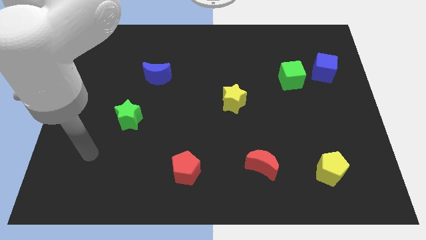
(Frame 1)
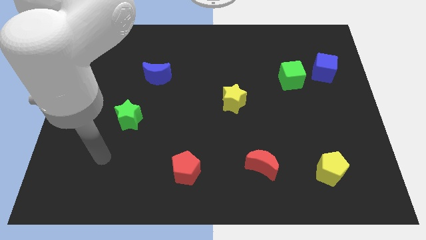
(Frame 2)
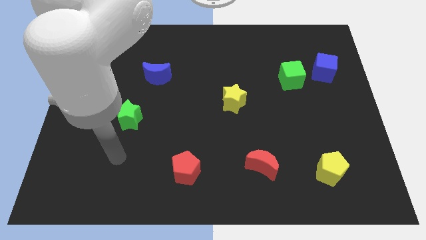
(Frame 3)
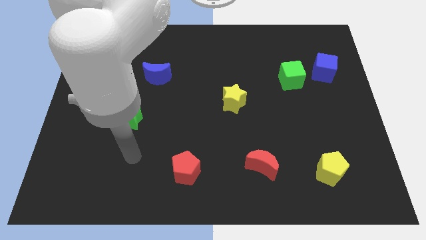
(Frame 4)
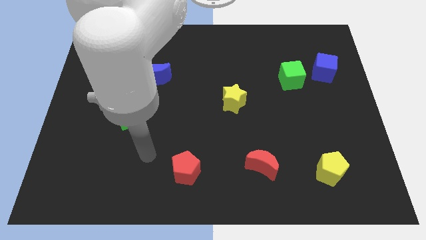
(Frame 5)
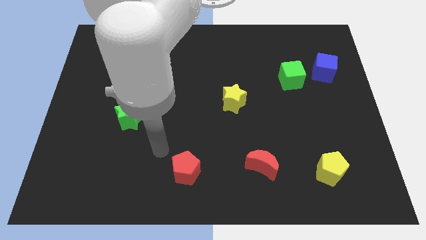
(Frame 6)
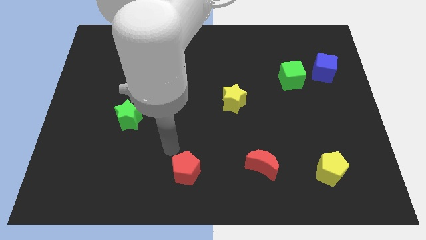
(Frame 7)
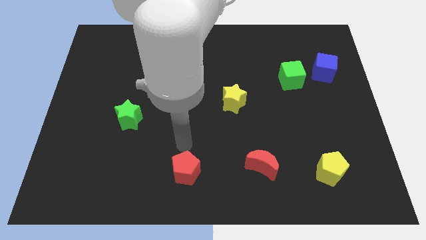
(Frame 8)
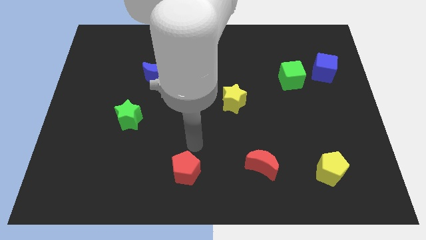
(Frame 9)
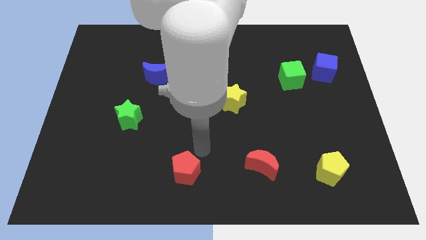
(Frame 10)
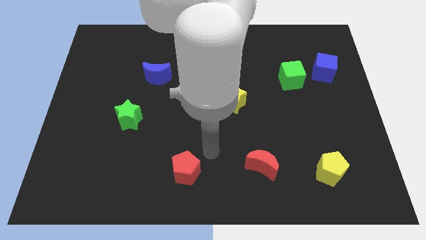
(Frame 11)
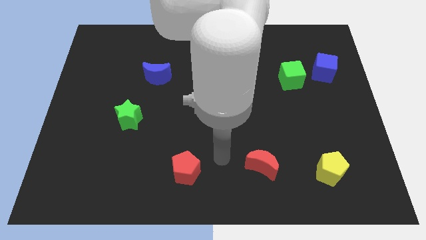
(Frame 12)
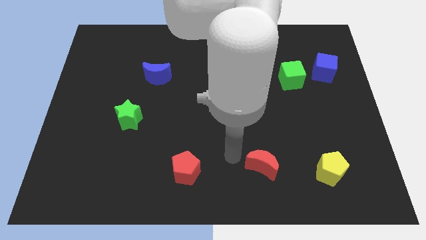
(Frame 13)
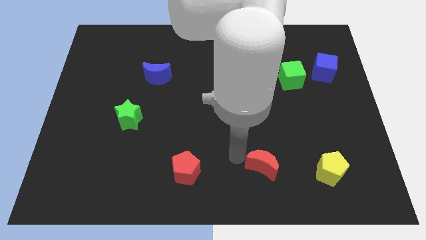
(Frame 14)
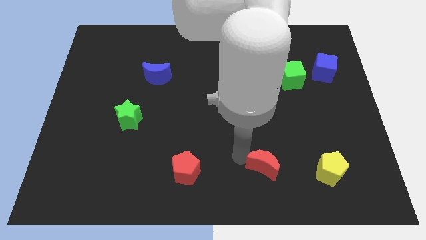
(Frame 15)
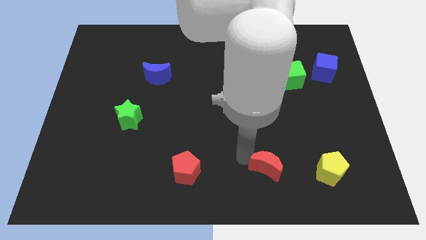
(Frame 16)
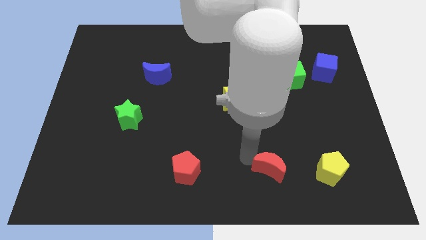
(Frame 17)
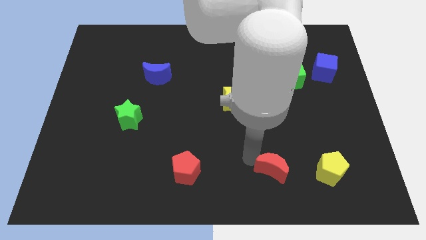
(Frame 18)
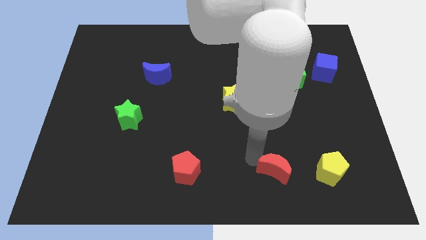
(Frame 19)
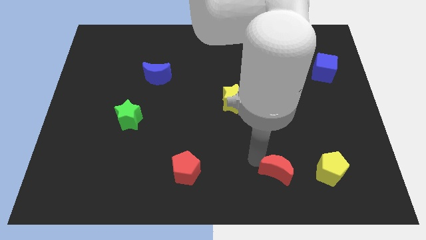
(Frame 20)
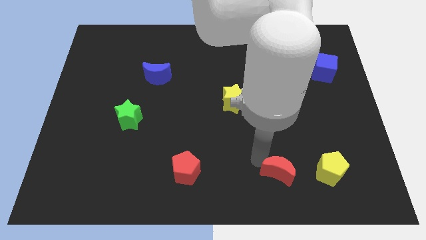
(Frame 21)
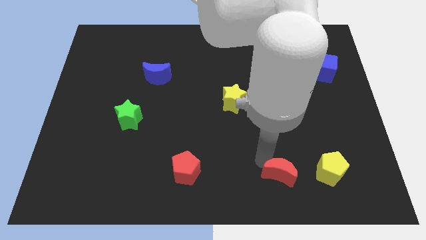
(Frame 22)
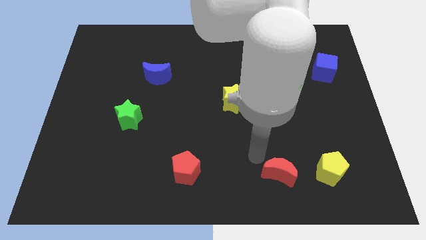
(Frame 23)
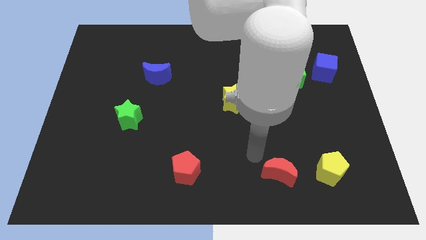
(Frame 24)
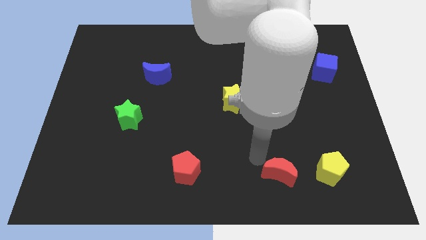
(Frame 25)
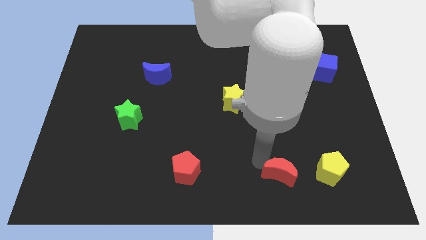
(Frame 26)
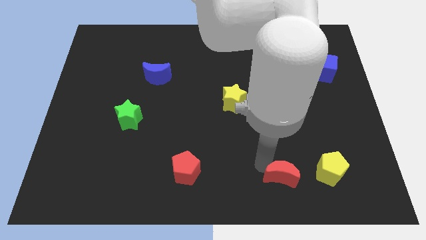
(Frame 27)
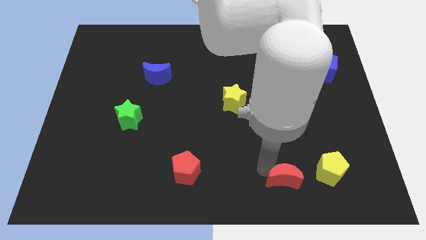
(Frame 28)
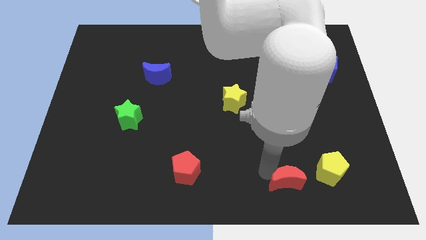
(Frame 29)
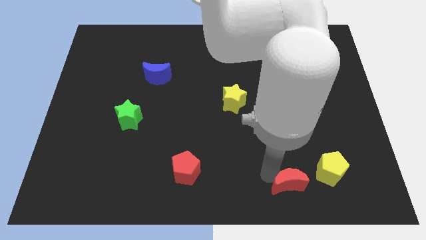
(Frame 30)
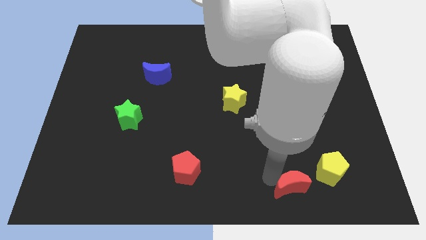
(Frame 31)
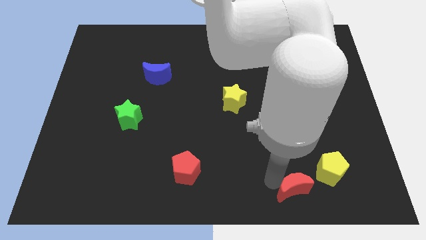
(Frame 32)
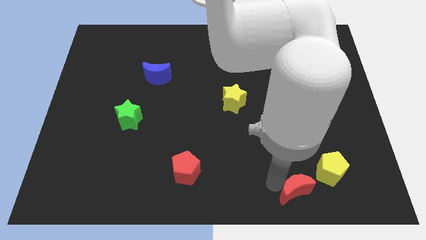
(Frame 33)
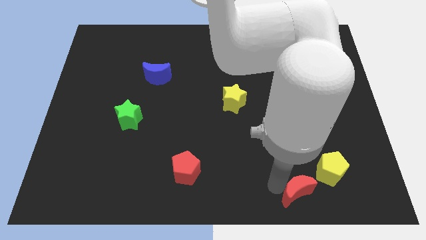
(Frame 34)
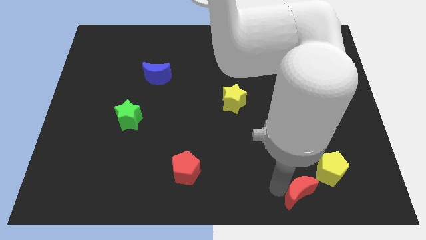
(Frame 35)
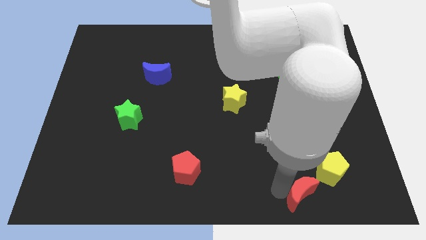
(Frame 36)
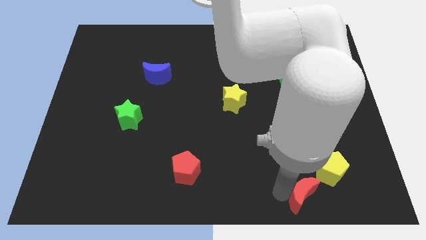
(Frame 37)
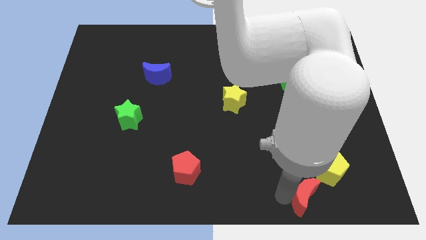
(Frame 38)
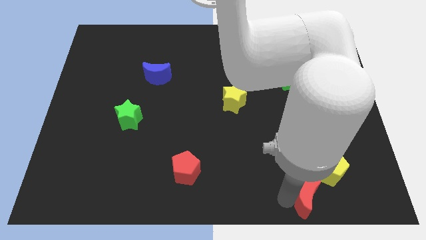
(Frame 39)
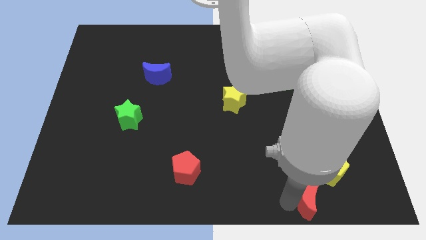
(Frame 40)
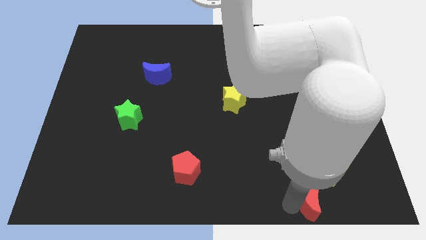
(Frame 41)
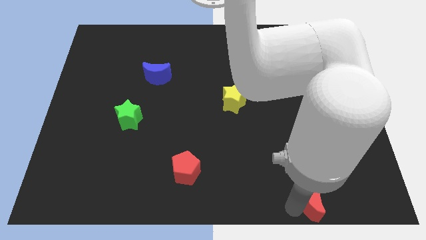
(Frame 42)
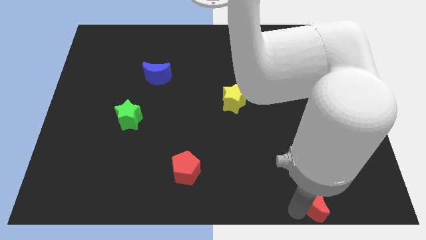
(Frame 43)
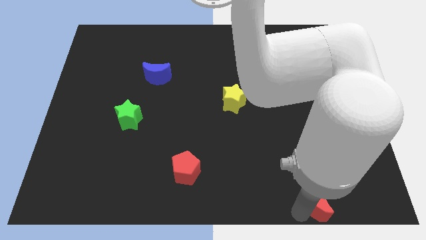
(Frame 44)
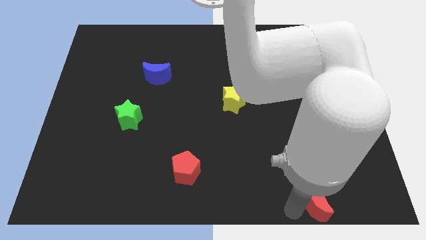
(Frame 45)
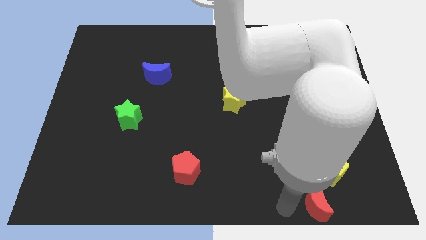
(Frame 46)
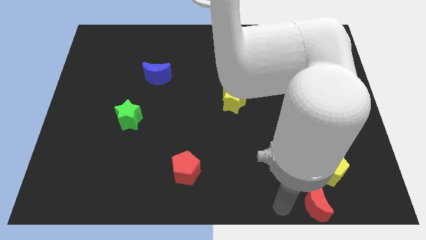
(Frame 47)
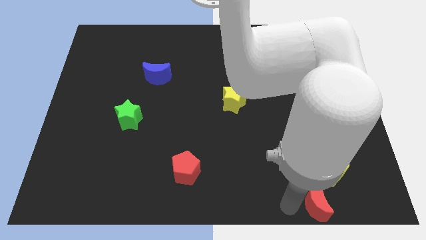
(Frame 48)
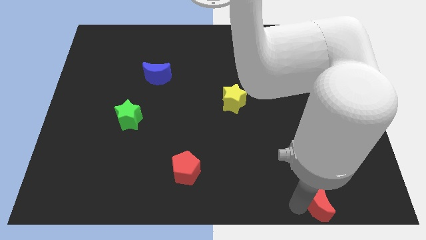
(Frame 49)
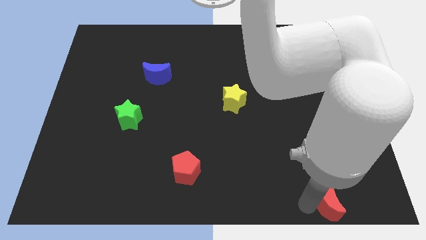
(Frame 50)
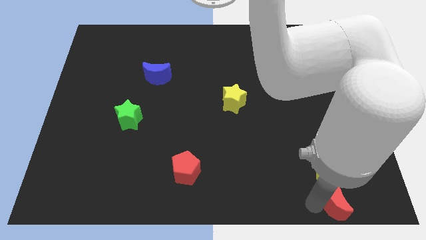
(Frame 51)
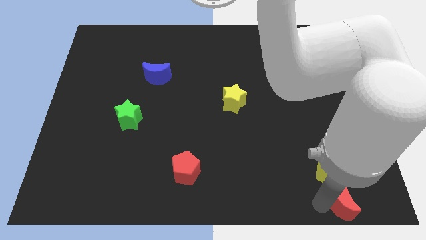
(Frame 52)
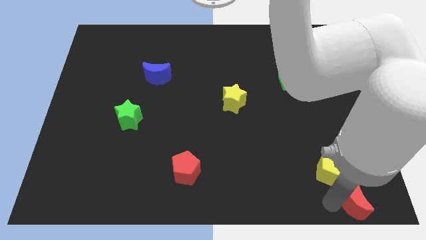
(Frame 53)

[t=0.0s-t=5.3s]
slide the red moon to the bottom right corner
